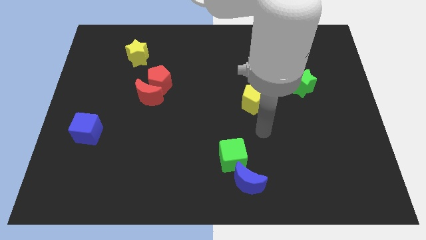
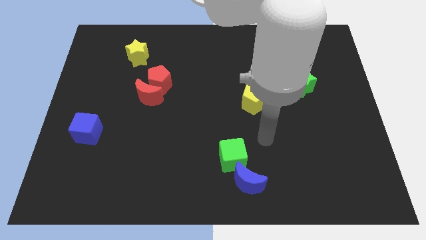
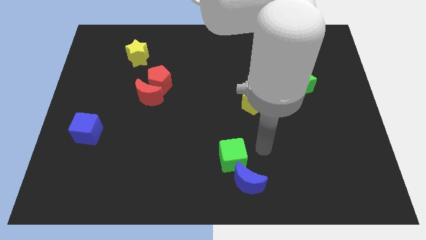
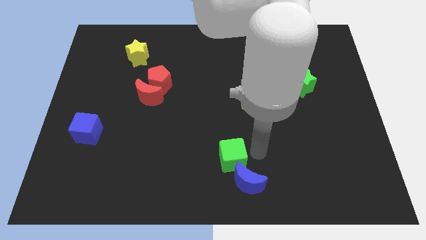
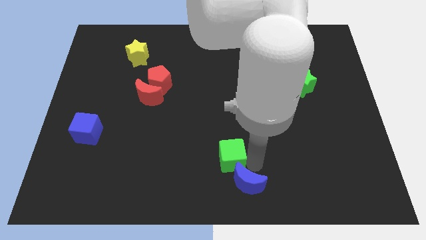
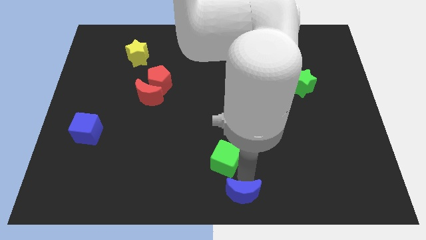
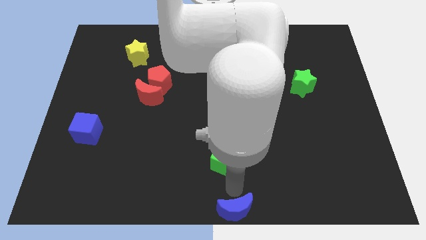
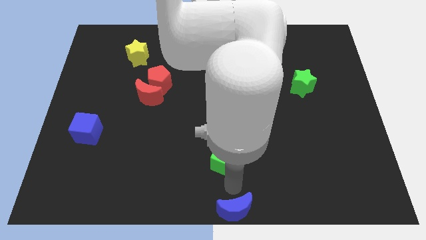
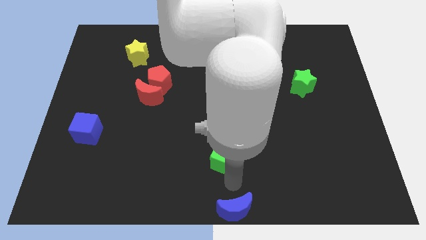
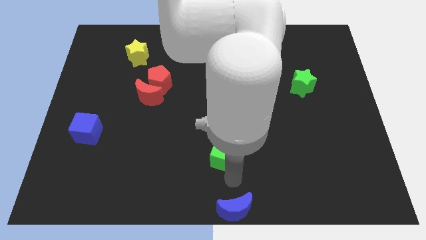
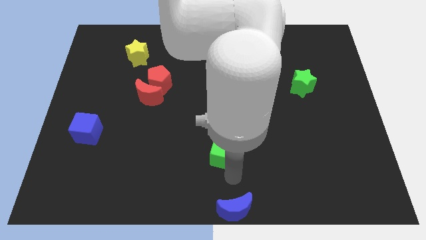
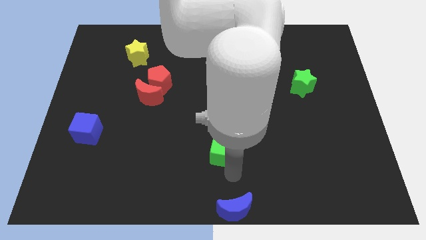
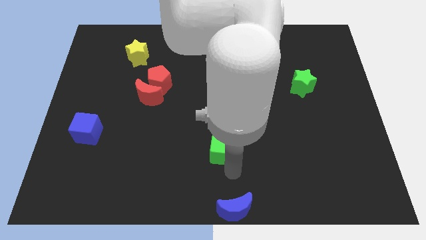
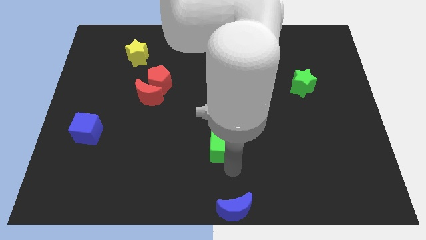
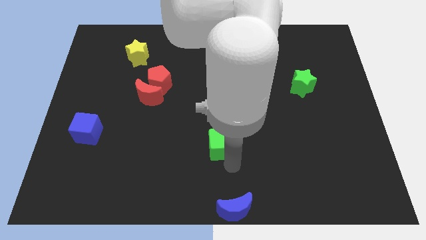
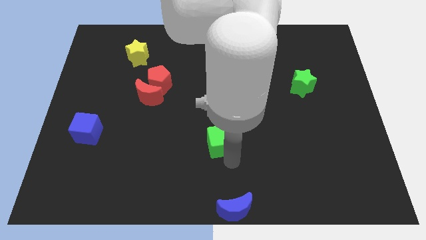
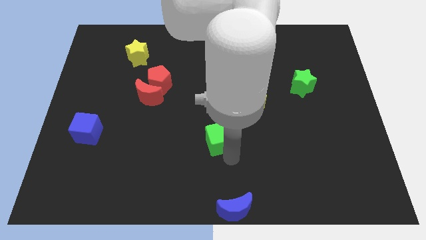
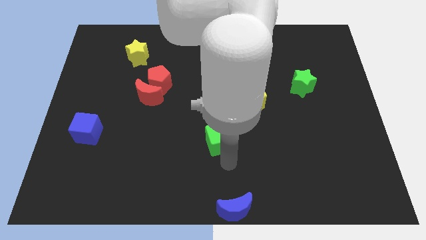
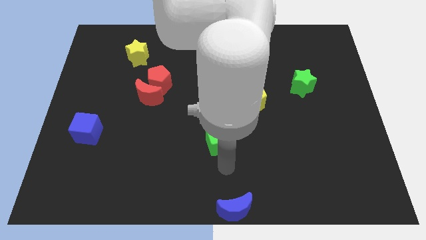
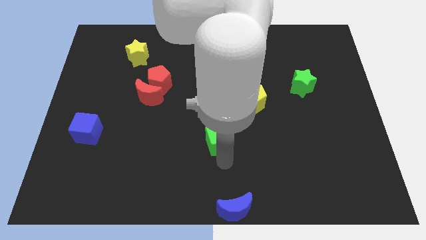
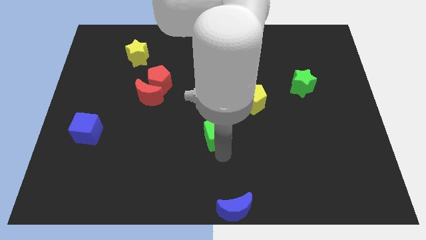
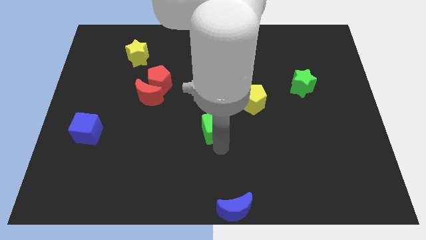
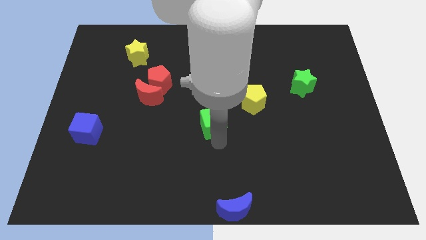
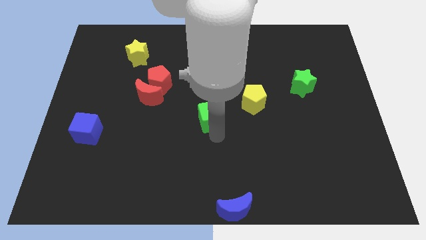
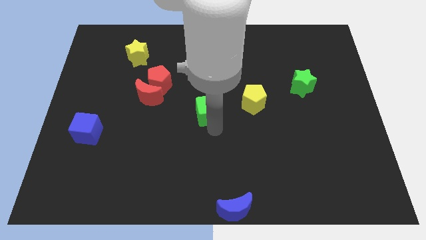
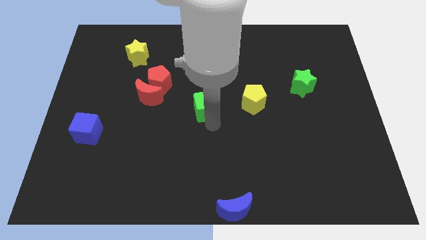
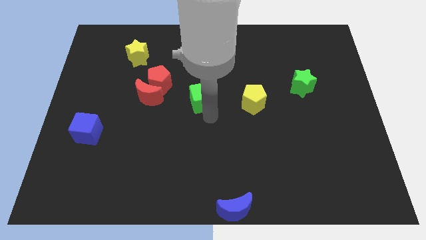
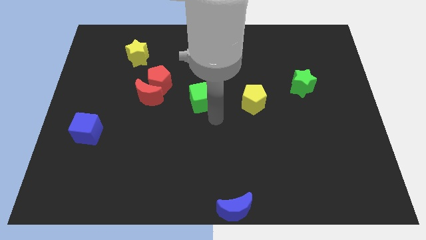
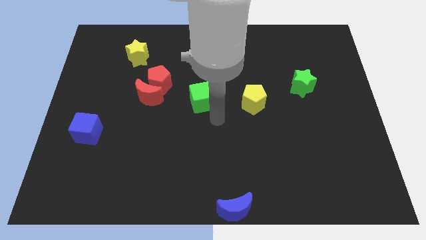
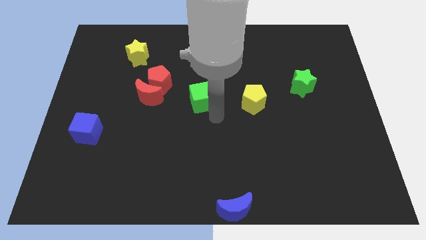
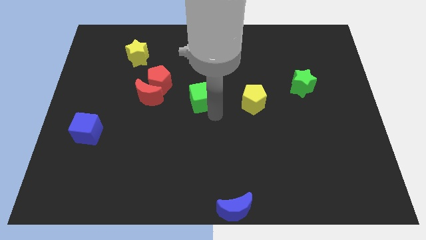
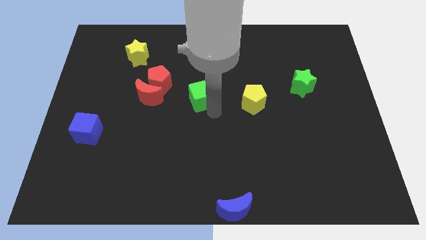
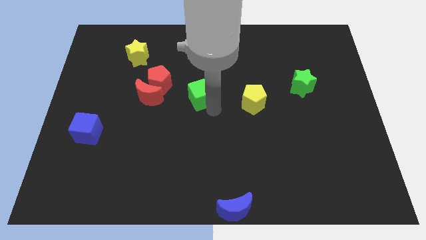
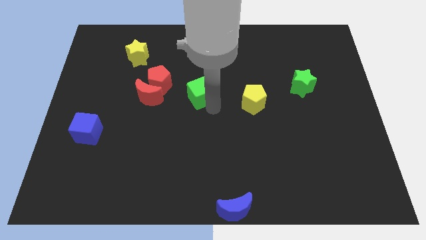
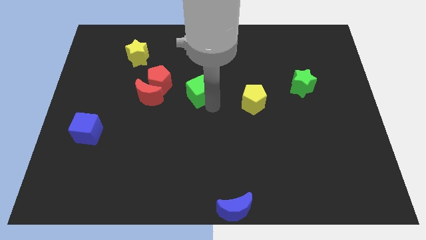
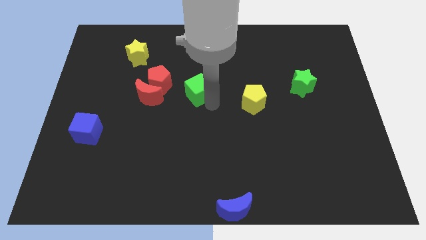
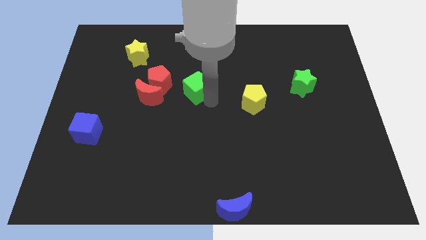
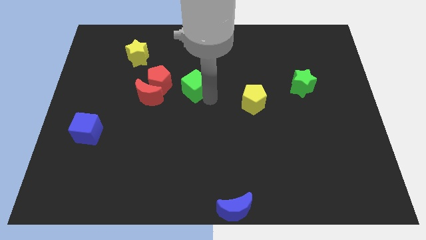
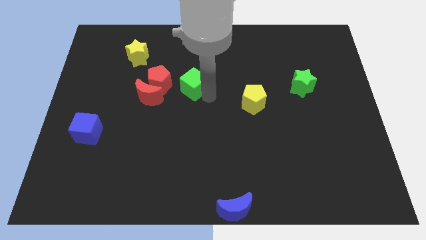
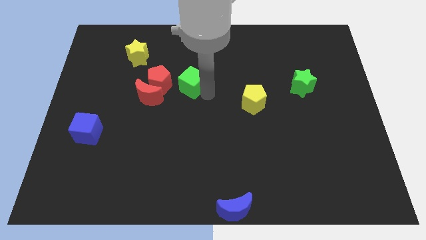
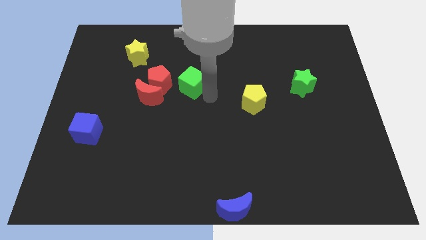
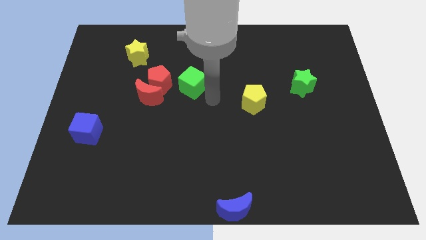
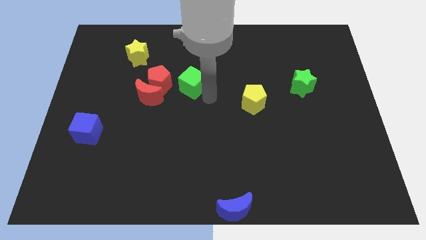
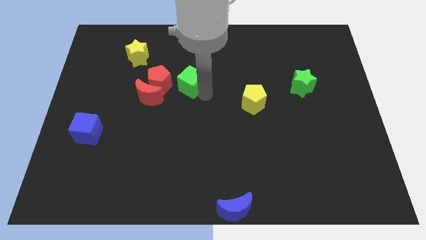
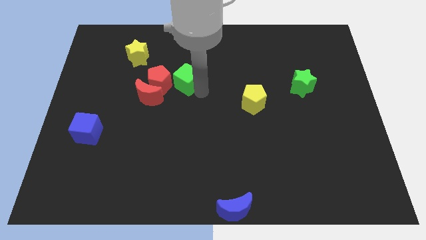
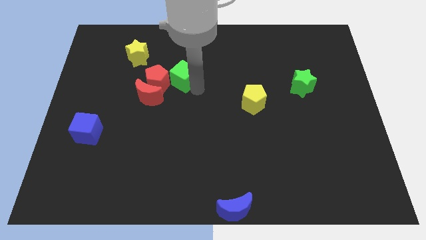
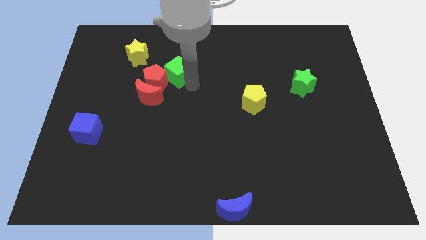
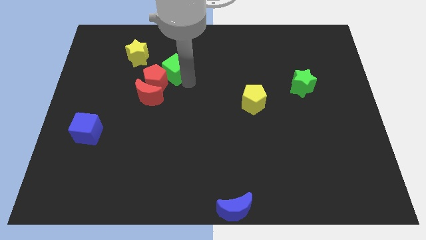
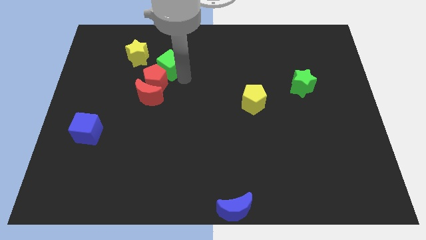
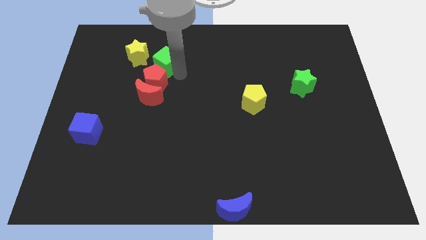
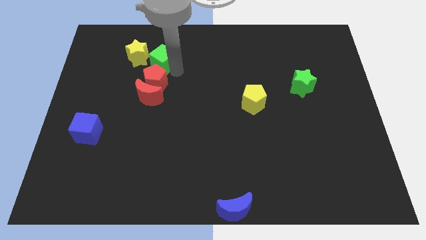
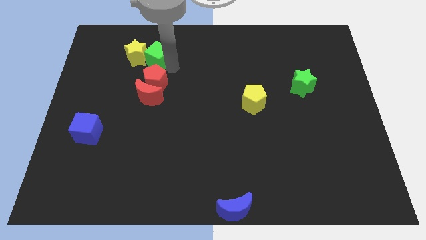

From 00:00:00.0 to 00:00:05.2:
slide the green cube to the yellow star

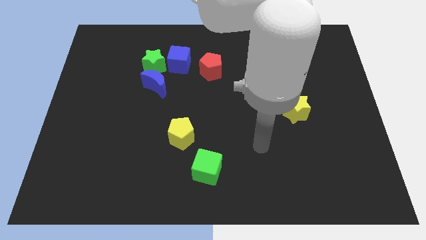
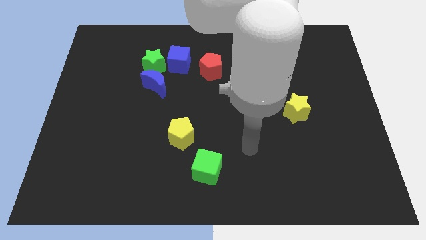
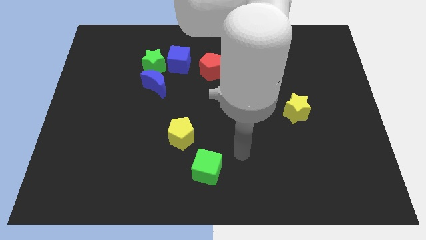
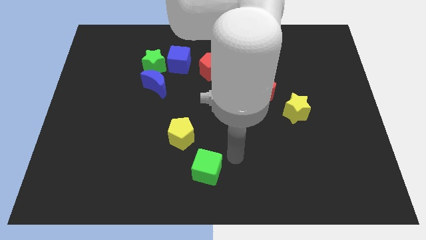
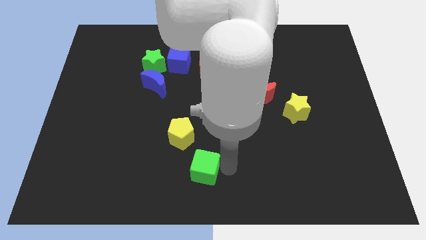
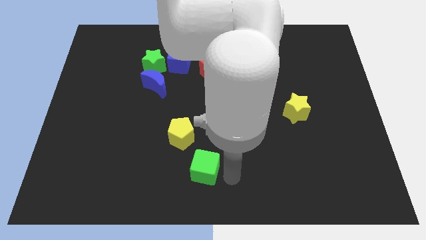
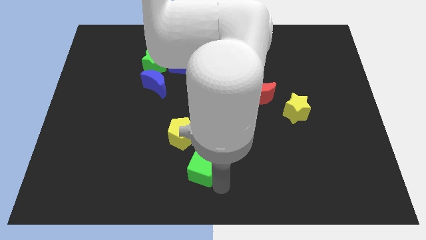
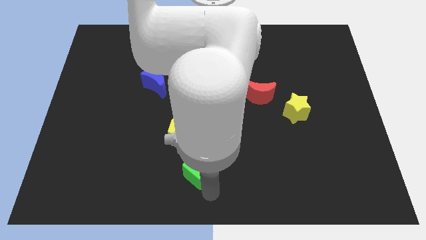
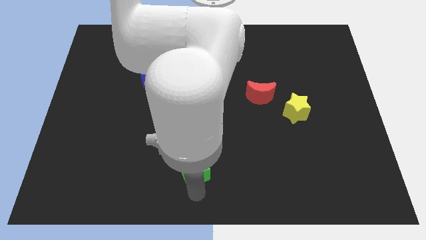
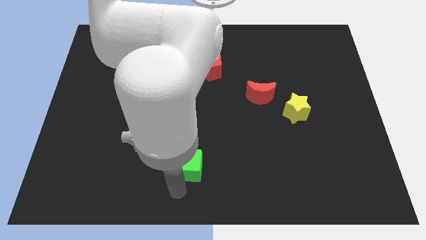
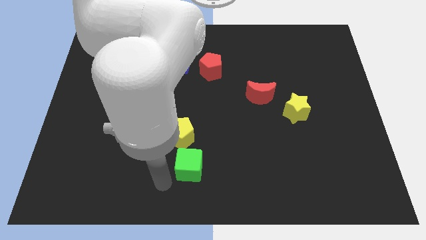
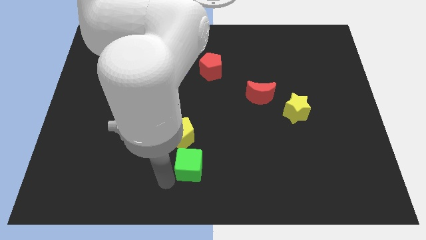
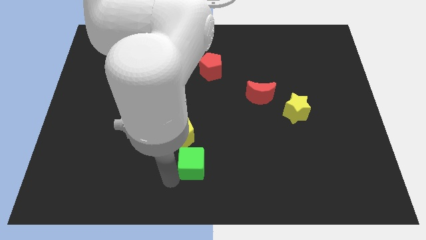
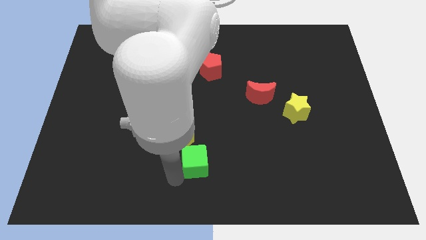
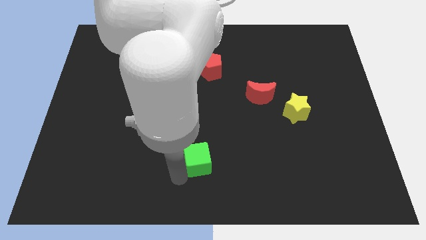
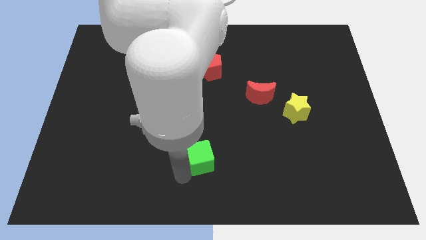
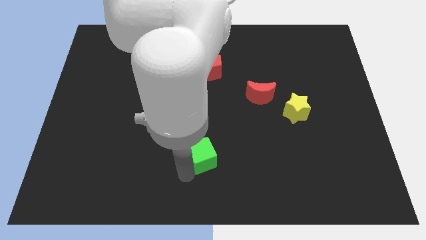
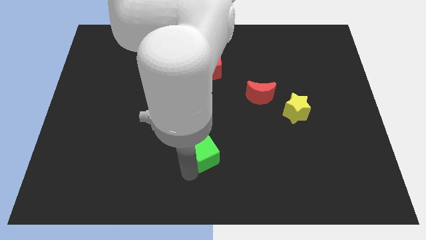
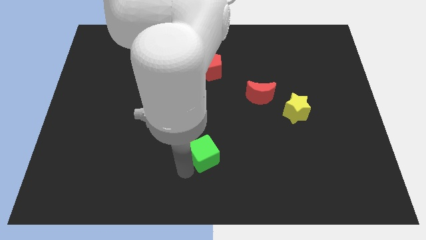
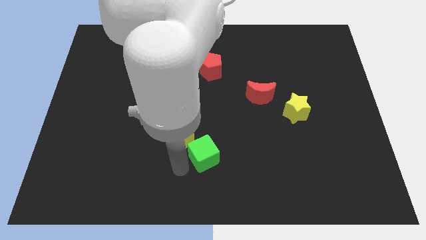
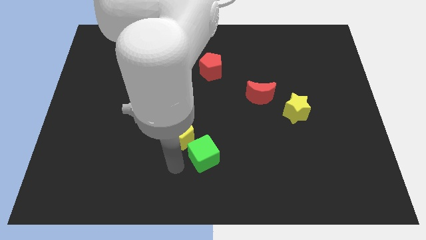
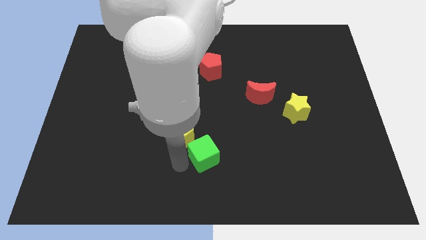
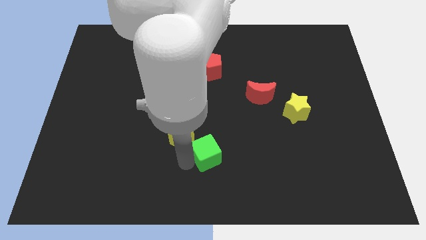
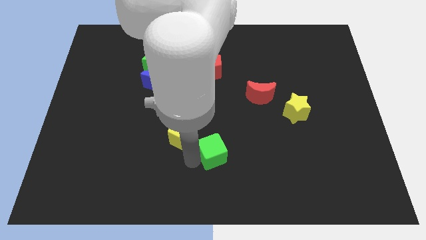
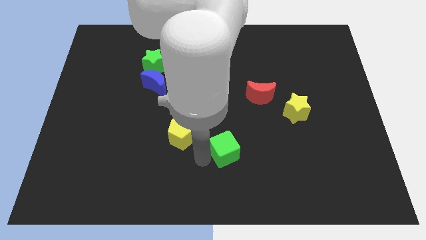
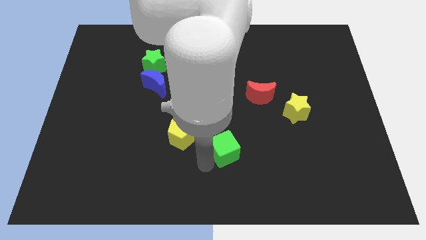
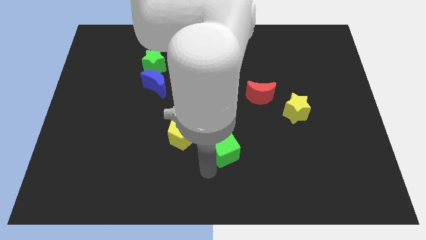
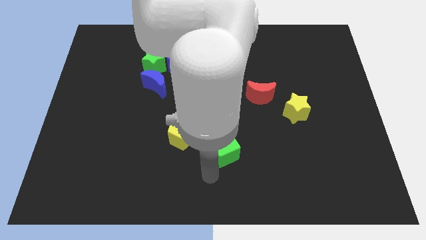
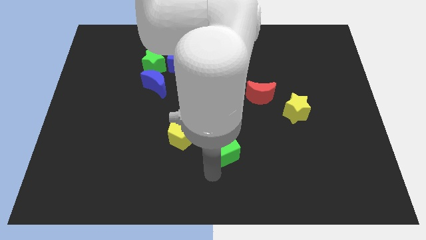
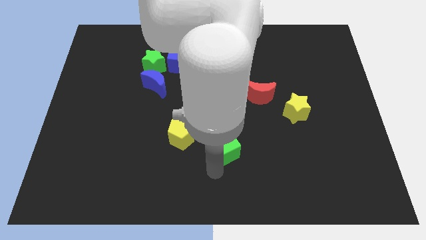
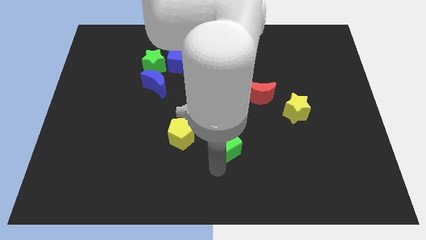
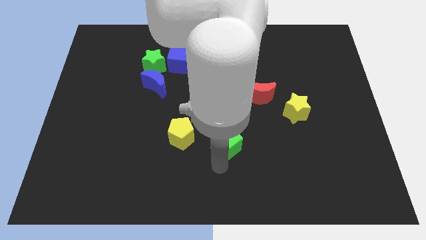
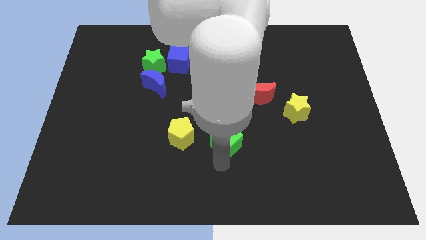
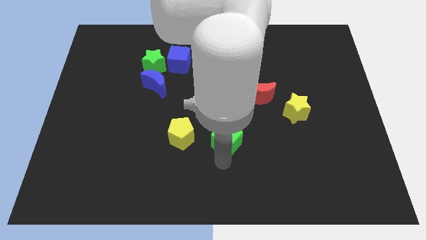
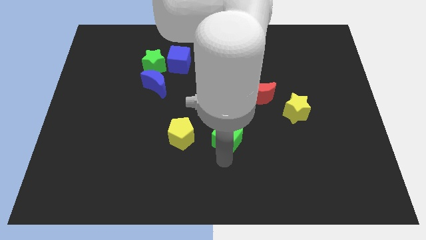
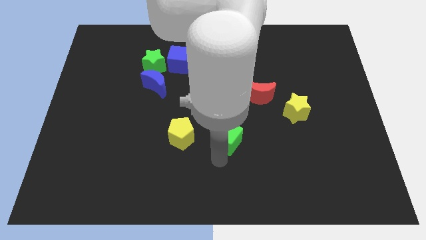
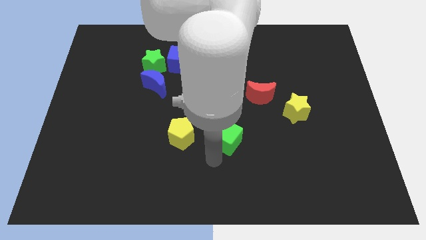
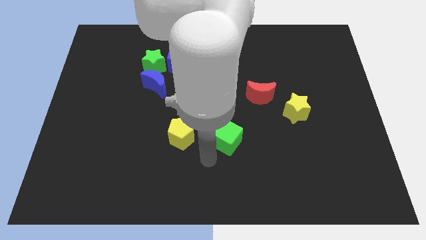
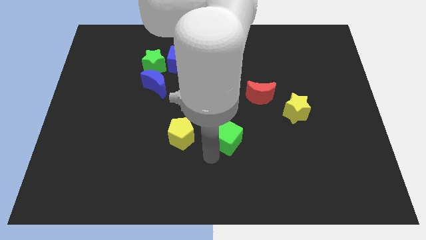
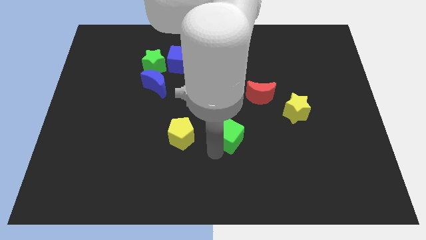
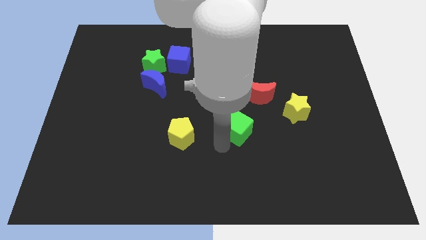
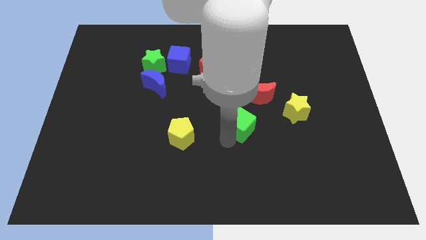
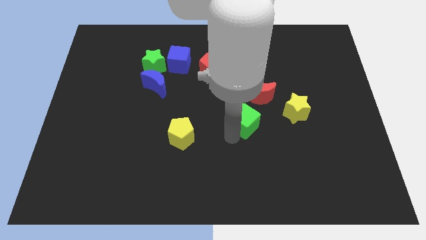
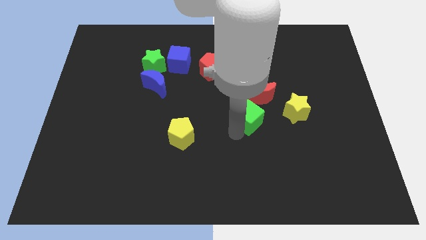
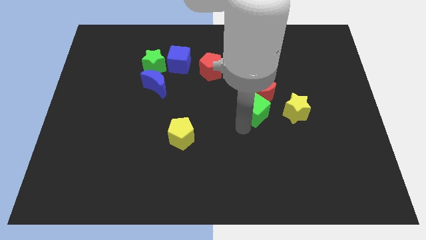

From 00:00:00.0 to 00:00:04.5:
put the green cube to the red moon
